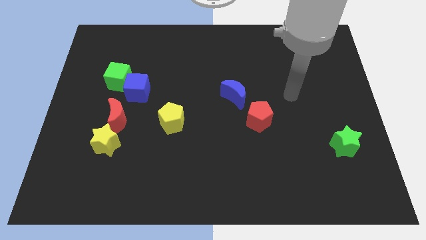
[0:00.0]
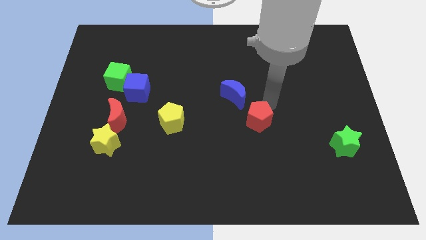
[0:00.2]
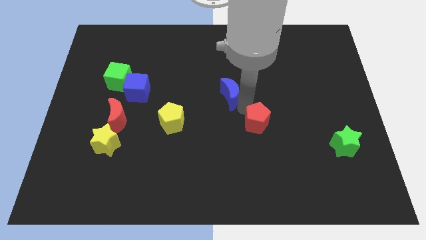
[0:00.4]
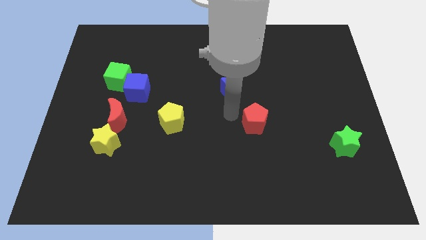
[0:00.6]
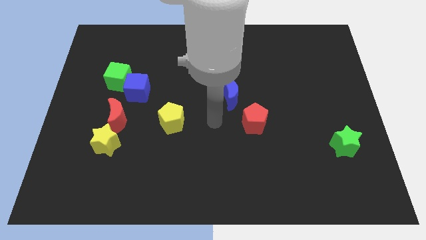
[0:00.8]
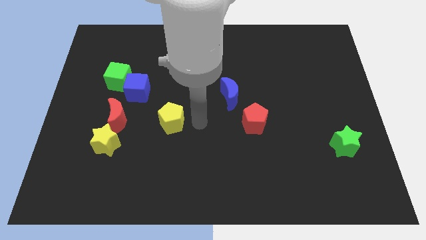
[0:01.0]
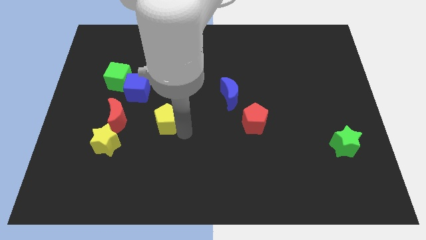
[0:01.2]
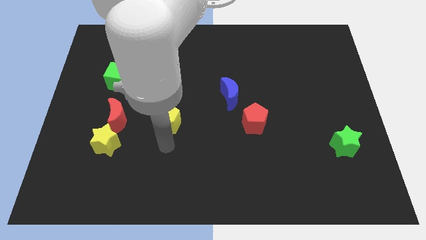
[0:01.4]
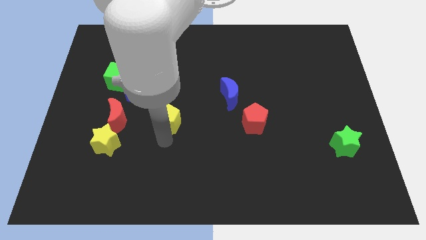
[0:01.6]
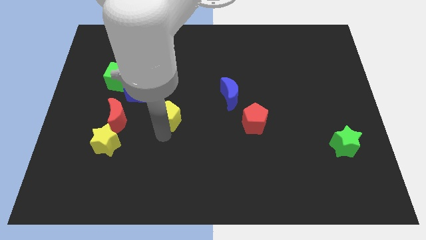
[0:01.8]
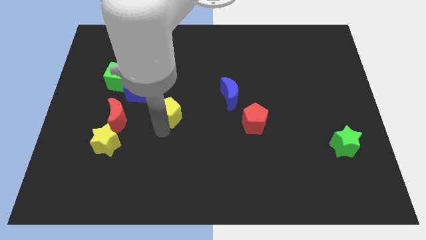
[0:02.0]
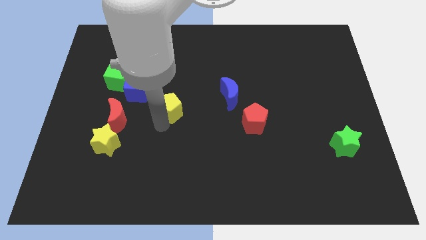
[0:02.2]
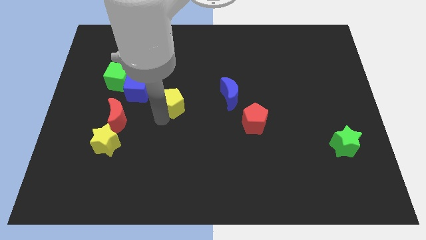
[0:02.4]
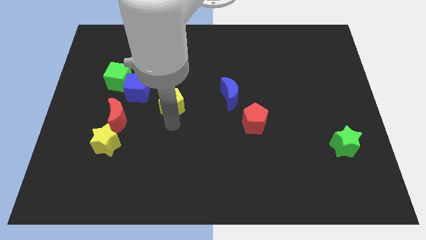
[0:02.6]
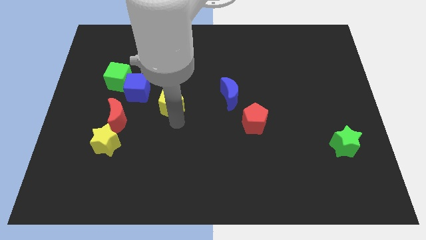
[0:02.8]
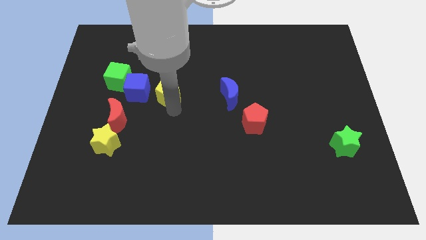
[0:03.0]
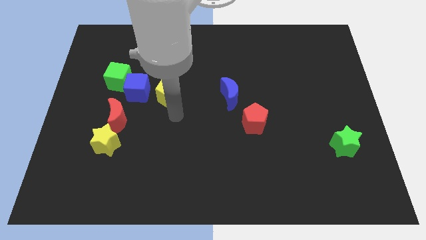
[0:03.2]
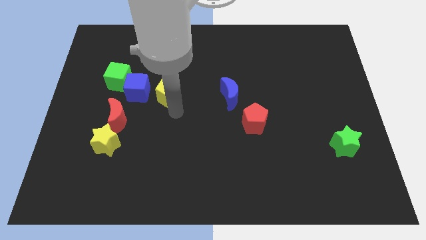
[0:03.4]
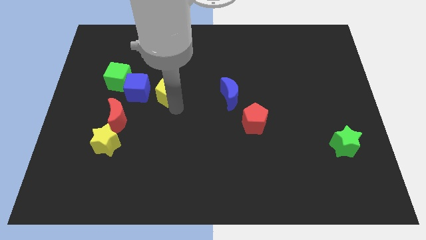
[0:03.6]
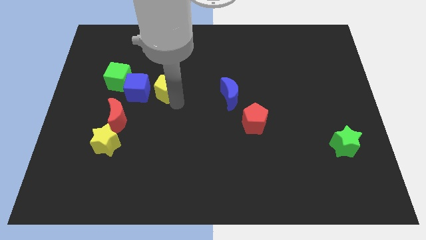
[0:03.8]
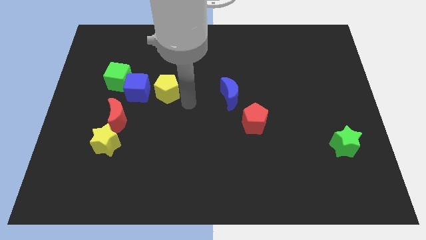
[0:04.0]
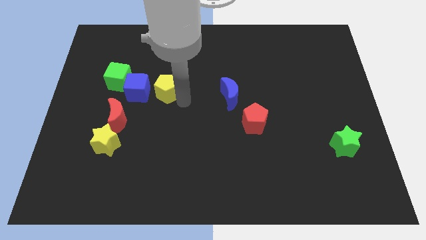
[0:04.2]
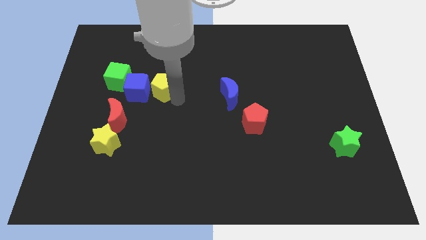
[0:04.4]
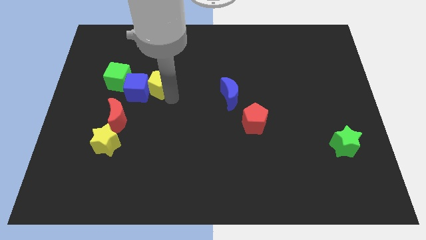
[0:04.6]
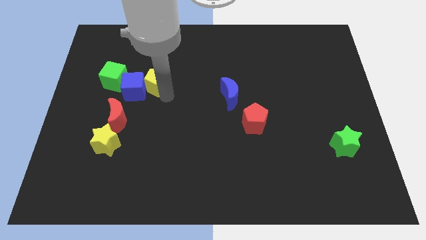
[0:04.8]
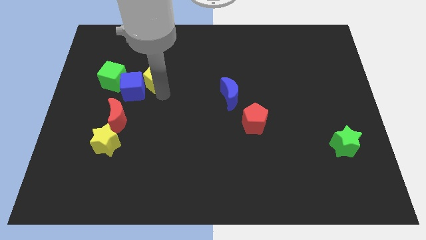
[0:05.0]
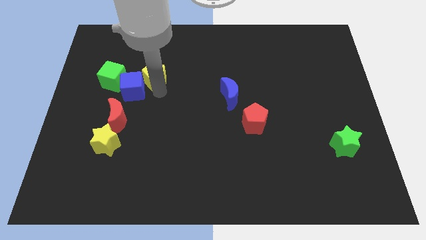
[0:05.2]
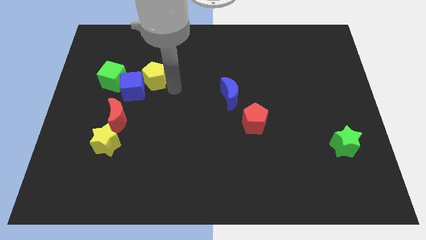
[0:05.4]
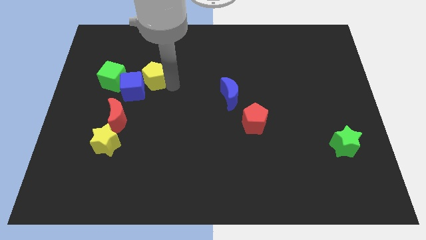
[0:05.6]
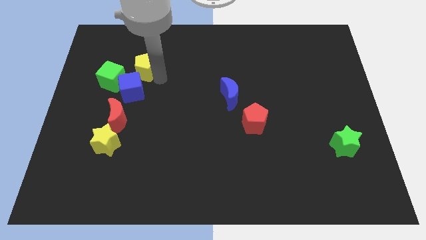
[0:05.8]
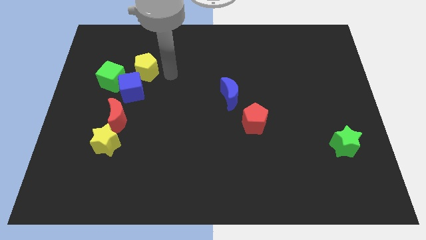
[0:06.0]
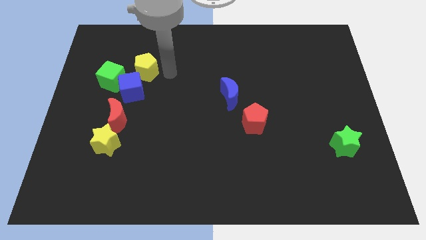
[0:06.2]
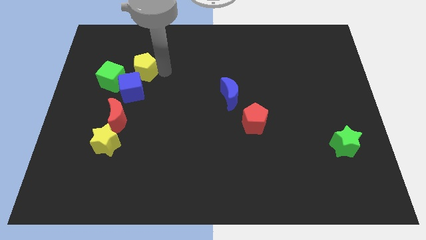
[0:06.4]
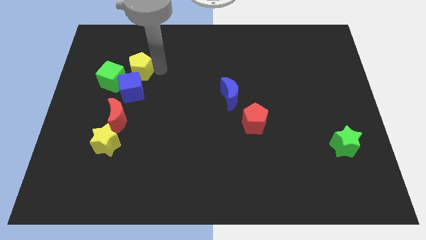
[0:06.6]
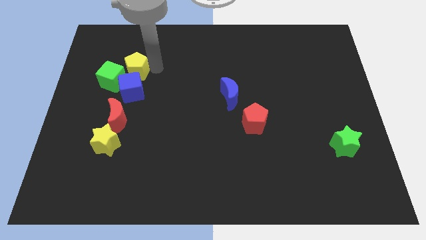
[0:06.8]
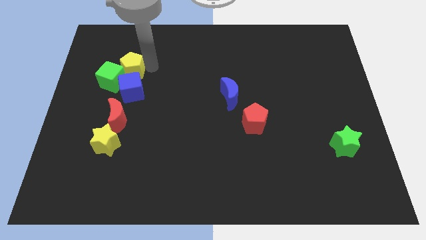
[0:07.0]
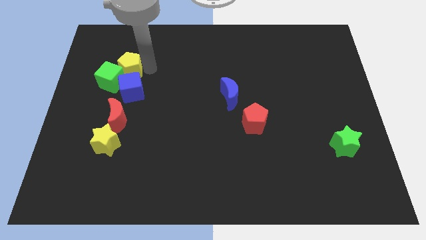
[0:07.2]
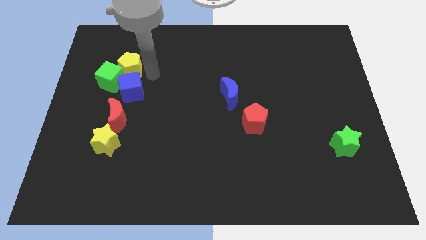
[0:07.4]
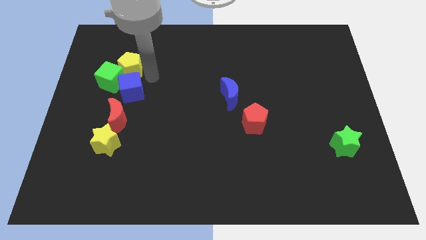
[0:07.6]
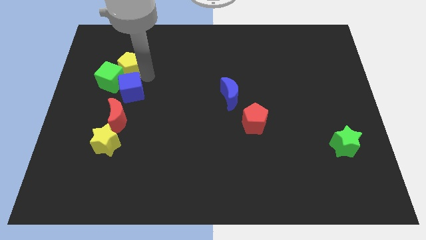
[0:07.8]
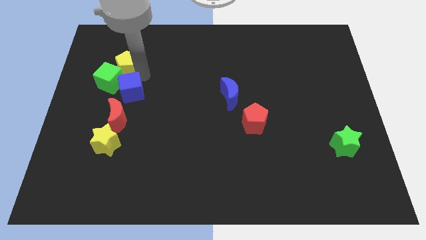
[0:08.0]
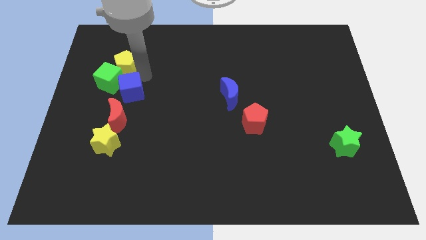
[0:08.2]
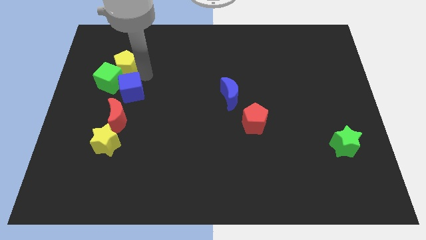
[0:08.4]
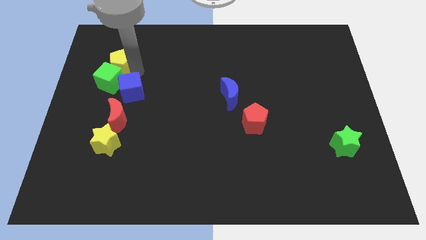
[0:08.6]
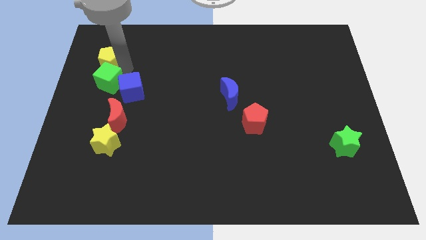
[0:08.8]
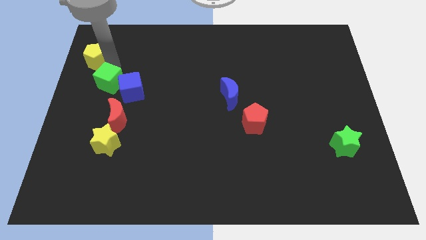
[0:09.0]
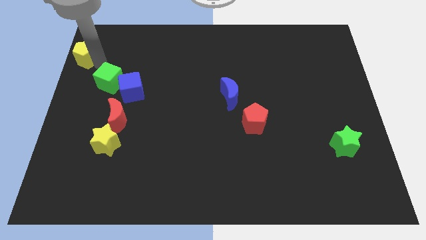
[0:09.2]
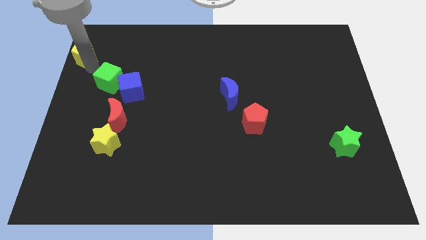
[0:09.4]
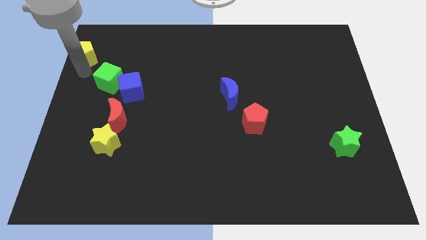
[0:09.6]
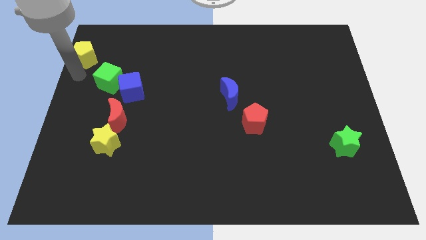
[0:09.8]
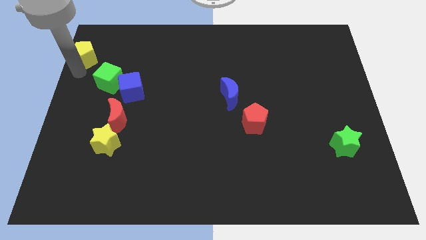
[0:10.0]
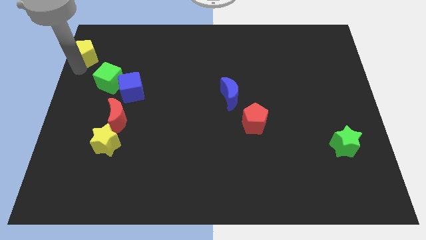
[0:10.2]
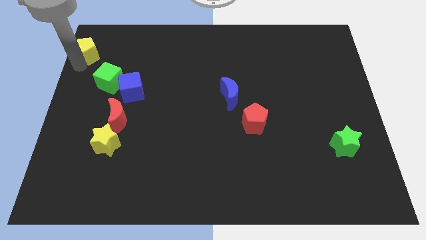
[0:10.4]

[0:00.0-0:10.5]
move the yellow pentagon to the top left of the board

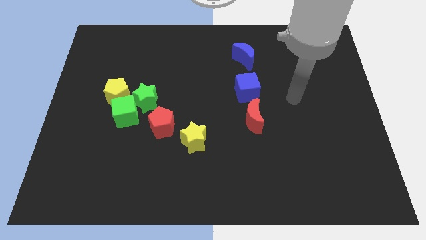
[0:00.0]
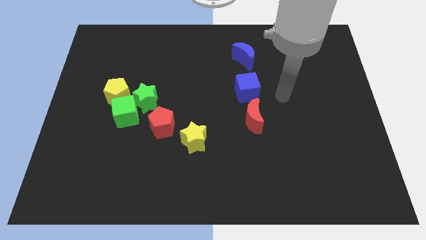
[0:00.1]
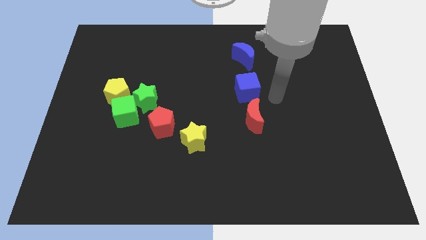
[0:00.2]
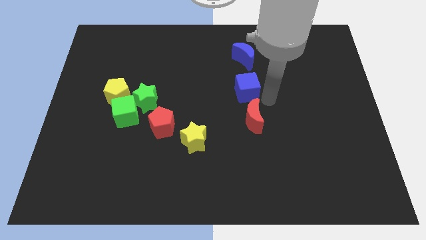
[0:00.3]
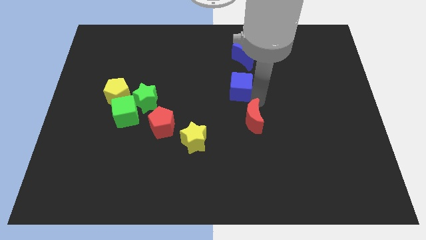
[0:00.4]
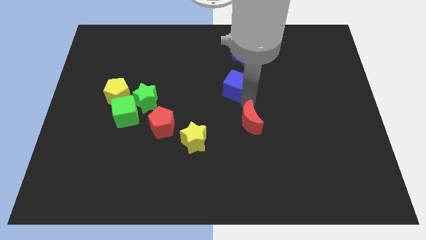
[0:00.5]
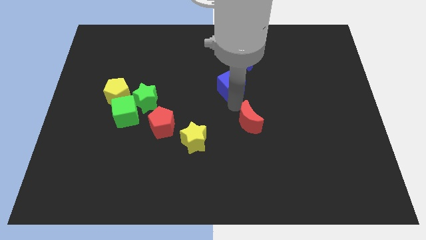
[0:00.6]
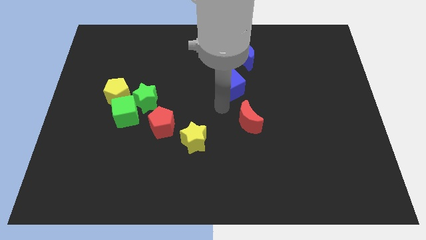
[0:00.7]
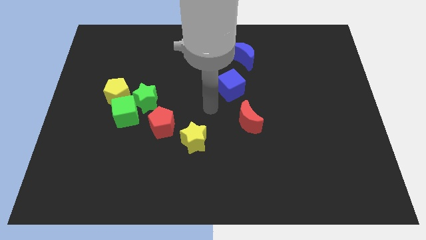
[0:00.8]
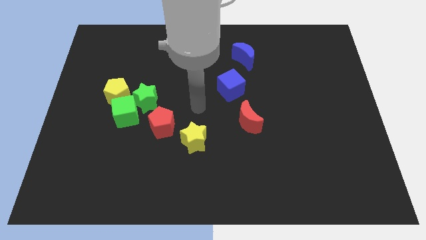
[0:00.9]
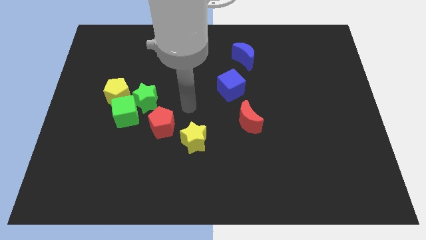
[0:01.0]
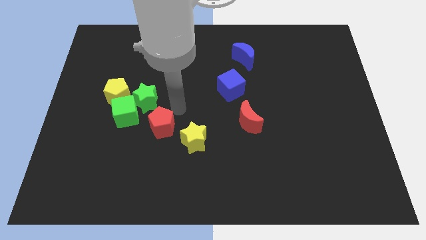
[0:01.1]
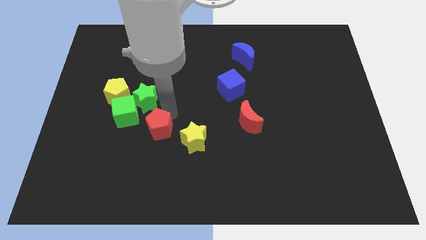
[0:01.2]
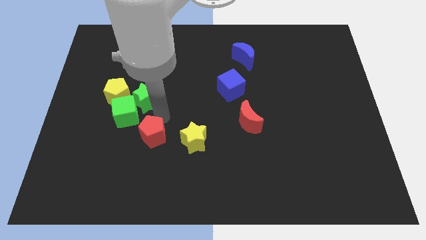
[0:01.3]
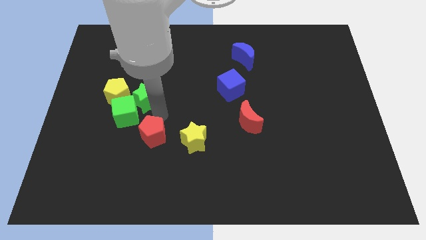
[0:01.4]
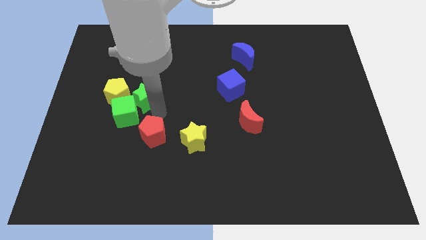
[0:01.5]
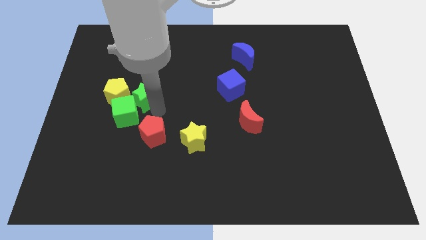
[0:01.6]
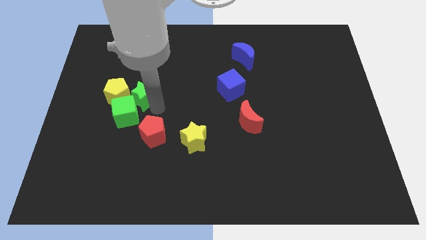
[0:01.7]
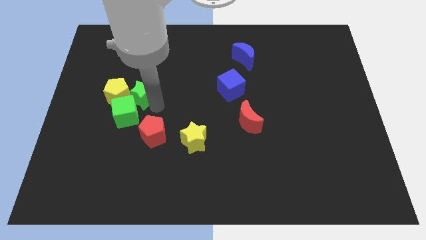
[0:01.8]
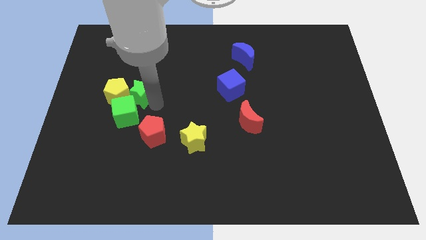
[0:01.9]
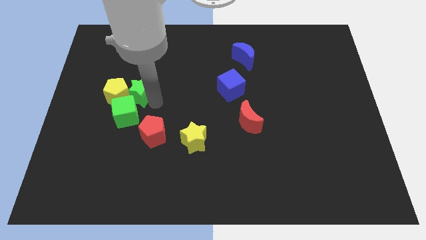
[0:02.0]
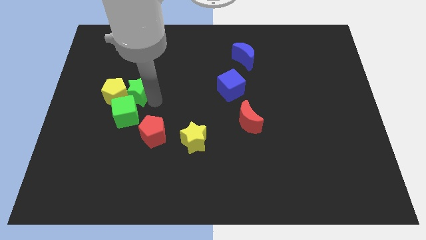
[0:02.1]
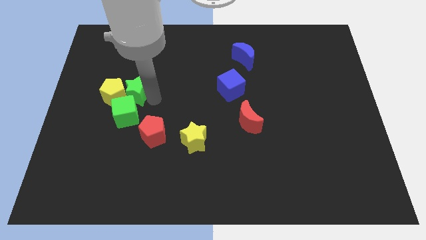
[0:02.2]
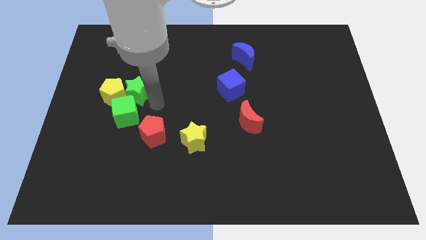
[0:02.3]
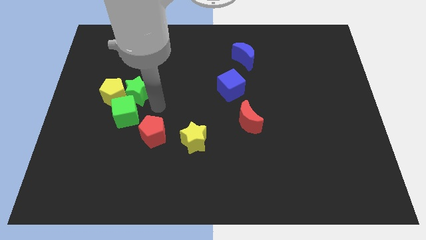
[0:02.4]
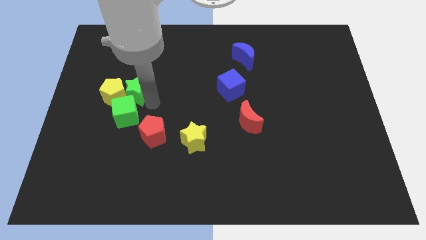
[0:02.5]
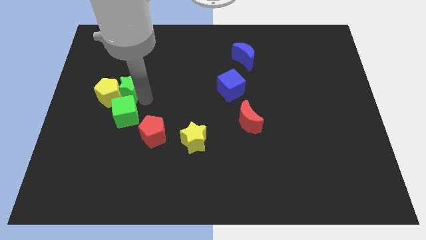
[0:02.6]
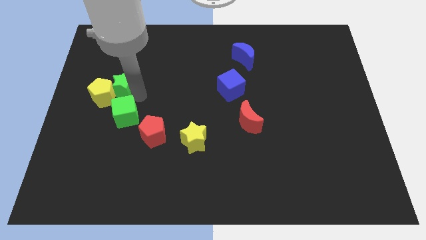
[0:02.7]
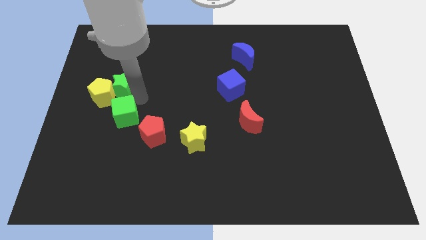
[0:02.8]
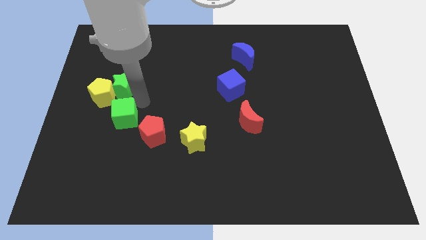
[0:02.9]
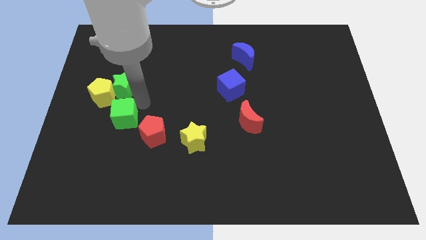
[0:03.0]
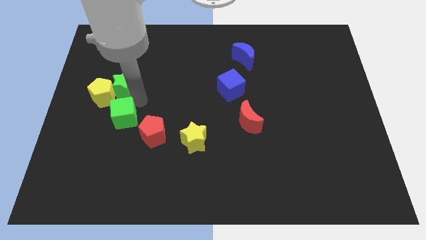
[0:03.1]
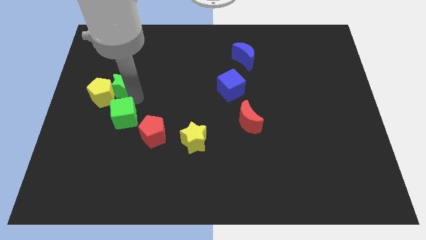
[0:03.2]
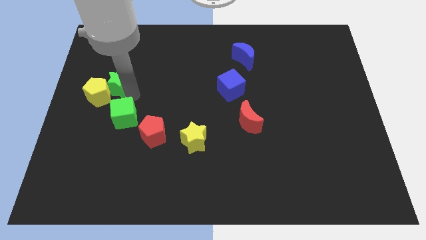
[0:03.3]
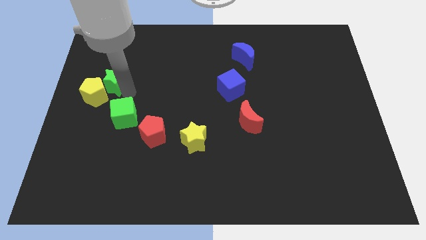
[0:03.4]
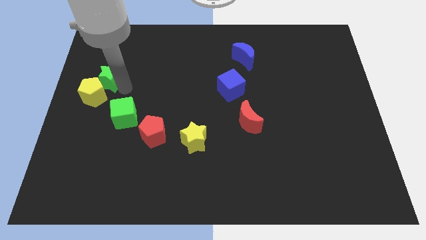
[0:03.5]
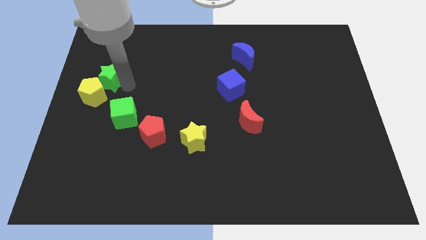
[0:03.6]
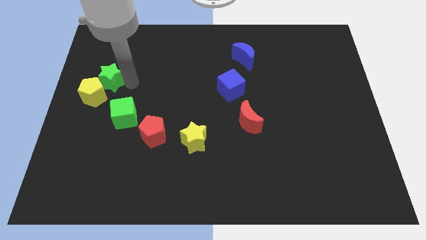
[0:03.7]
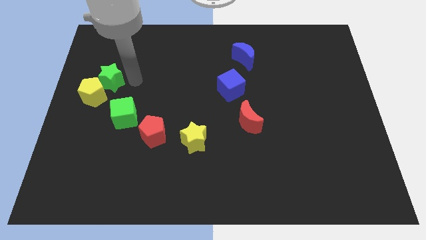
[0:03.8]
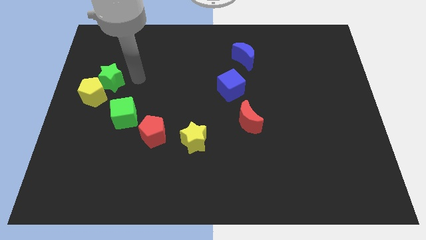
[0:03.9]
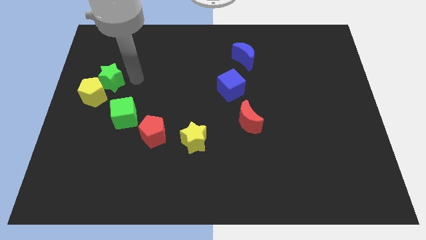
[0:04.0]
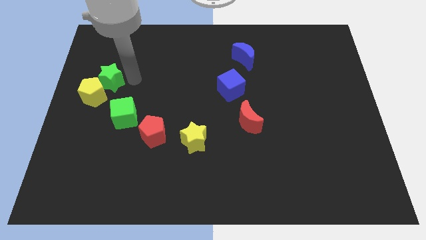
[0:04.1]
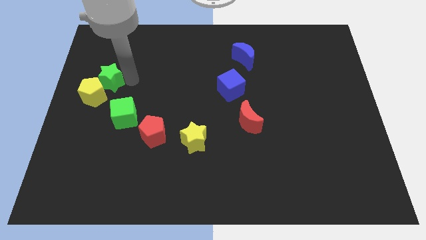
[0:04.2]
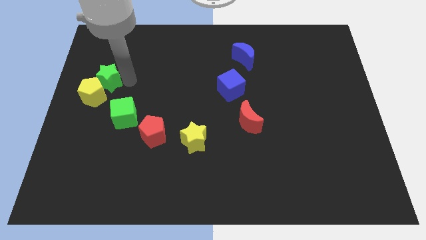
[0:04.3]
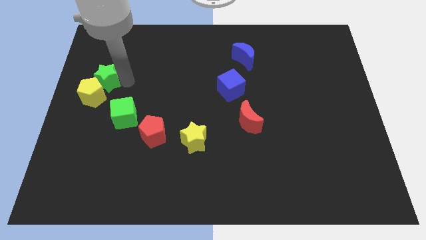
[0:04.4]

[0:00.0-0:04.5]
slide the green star to the center left
